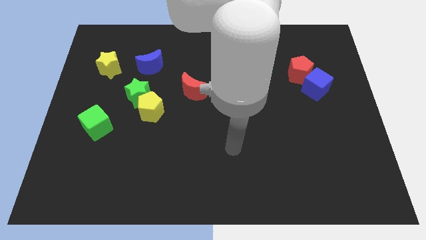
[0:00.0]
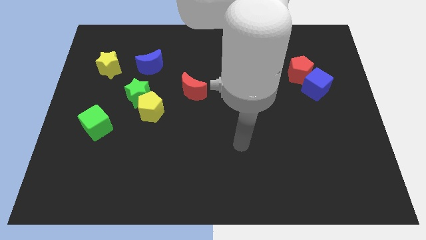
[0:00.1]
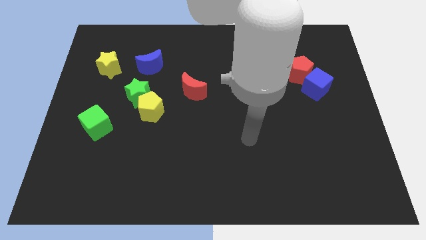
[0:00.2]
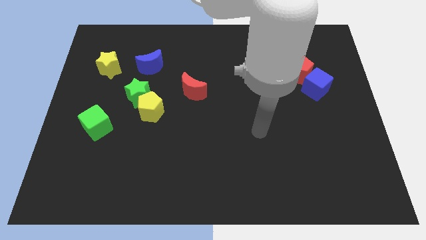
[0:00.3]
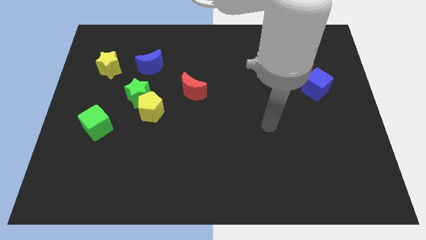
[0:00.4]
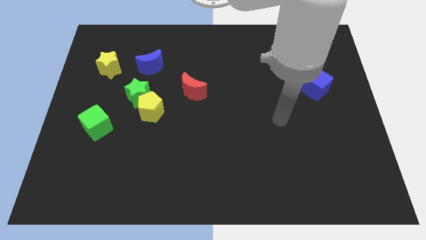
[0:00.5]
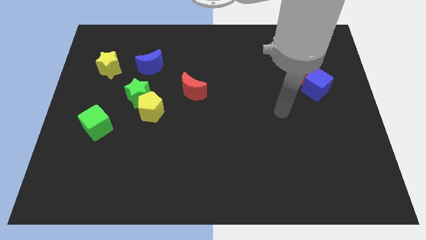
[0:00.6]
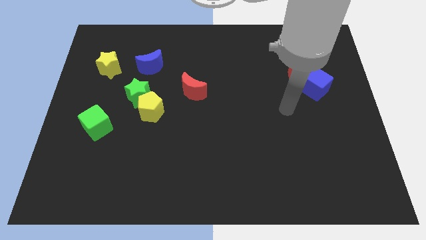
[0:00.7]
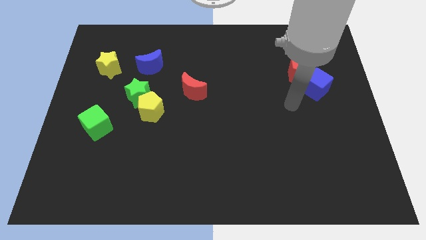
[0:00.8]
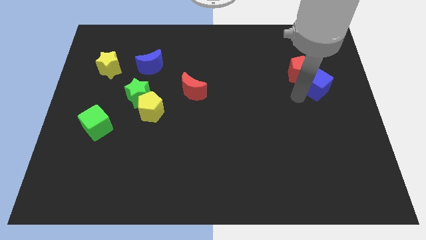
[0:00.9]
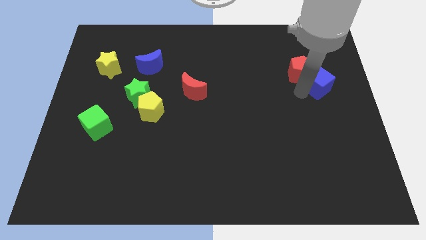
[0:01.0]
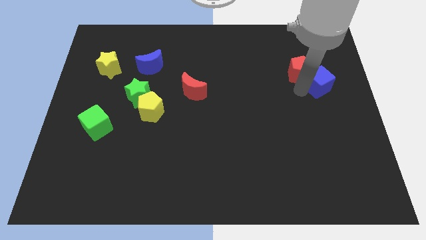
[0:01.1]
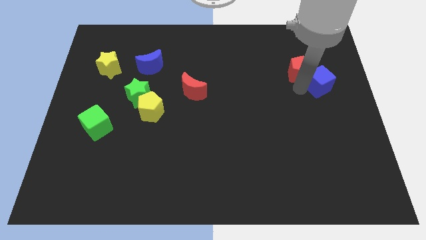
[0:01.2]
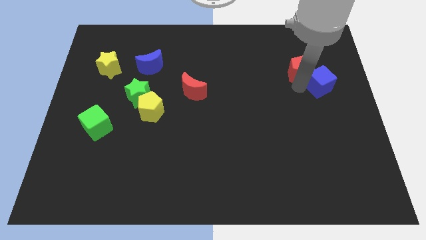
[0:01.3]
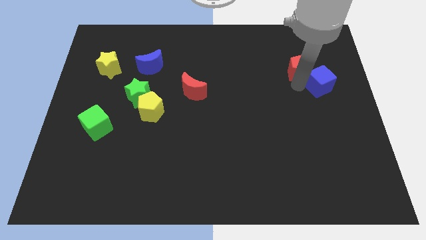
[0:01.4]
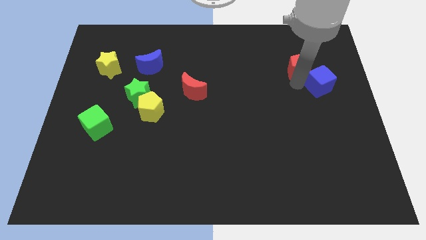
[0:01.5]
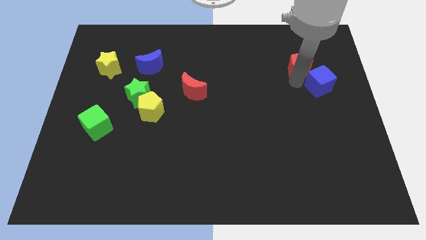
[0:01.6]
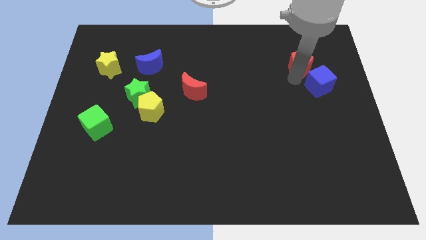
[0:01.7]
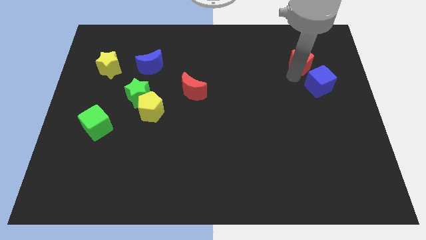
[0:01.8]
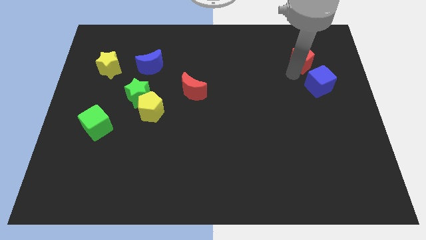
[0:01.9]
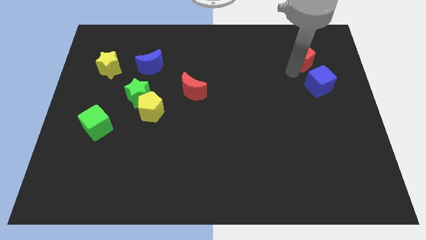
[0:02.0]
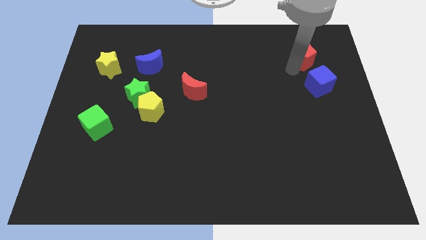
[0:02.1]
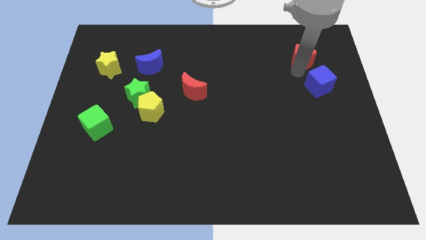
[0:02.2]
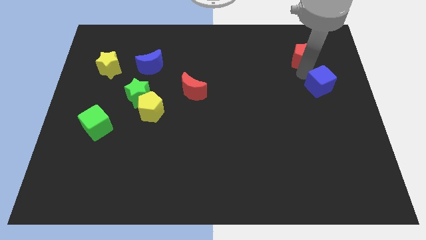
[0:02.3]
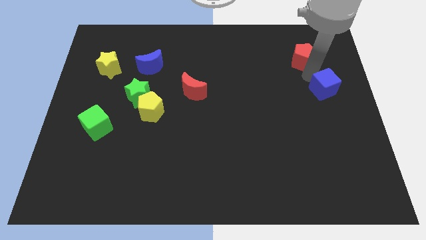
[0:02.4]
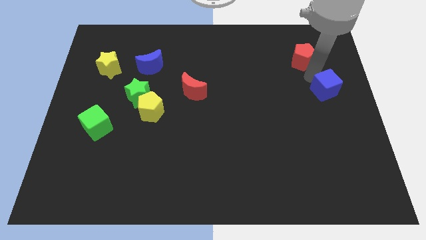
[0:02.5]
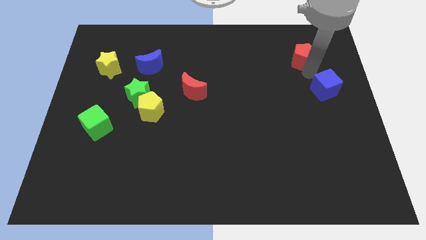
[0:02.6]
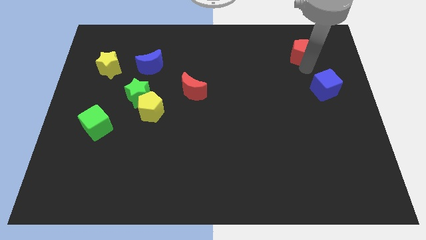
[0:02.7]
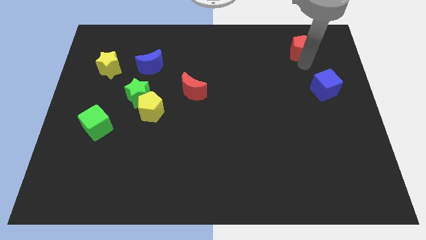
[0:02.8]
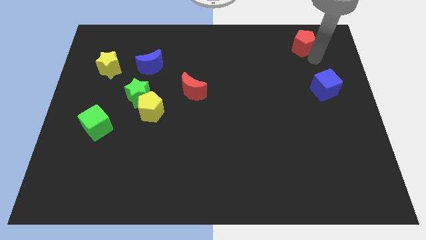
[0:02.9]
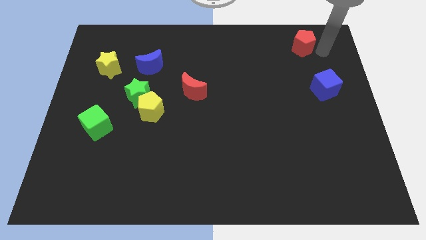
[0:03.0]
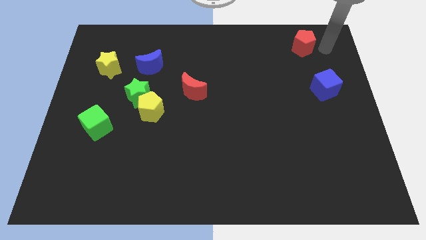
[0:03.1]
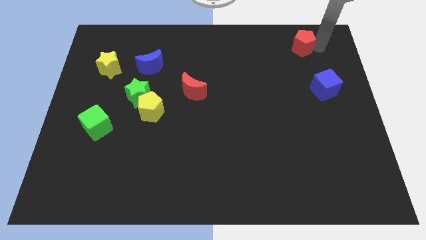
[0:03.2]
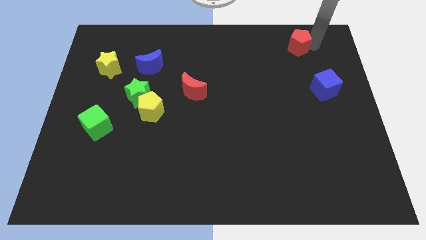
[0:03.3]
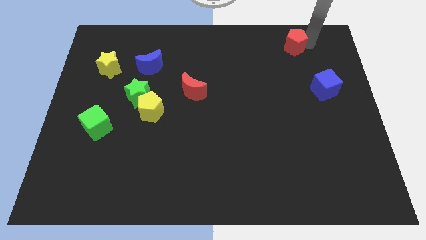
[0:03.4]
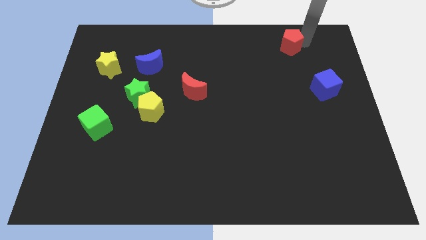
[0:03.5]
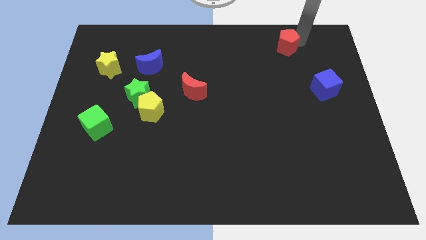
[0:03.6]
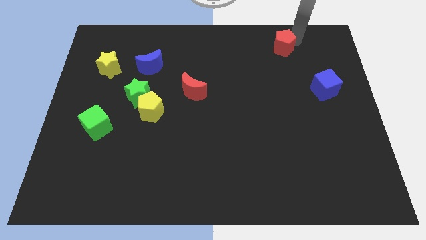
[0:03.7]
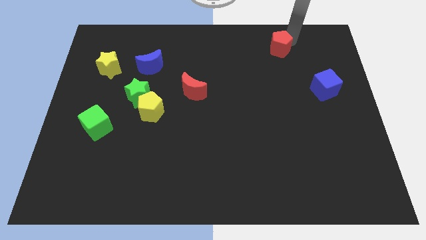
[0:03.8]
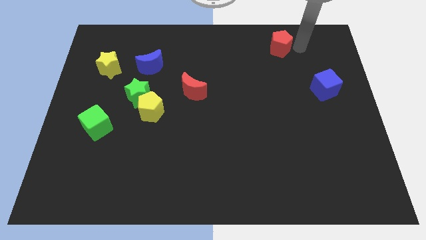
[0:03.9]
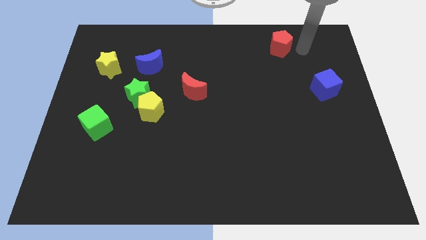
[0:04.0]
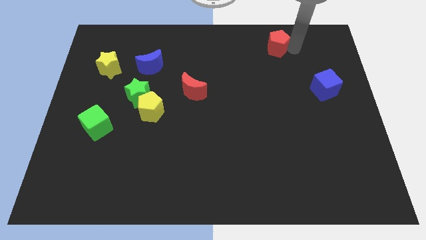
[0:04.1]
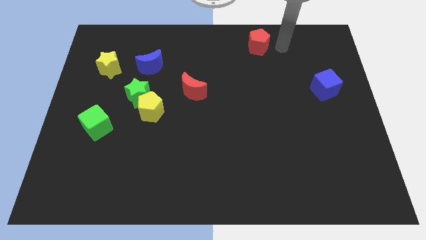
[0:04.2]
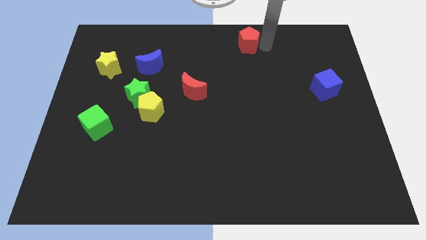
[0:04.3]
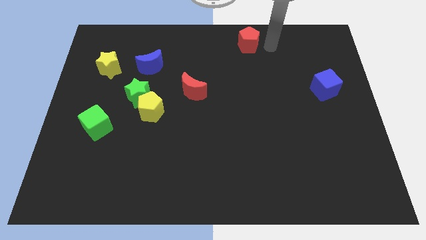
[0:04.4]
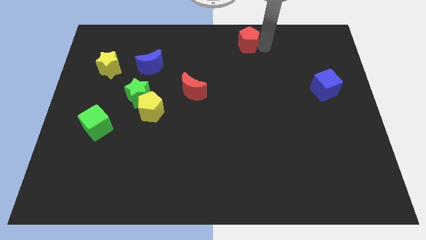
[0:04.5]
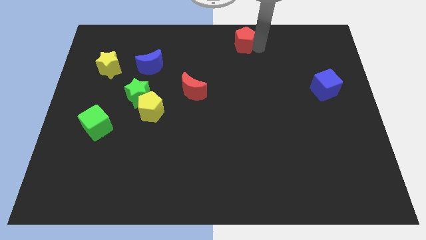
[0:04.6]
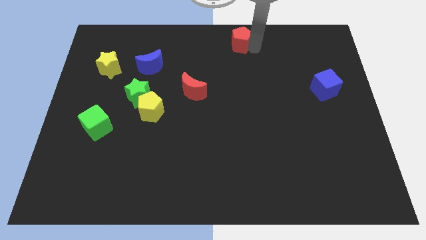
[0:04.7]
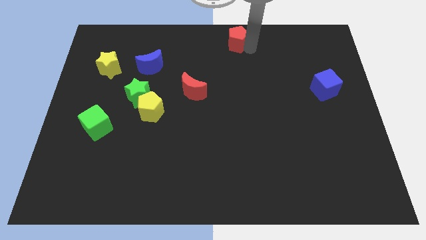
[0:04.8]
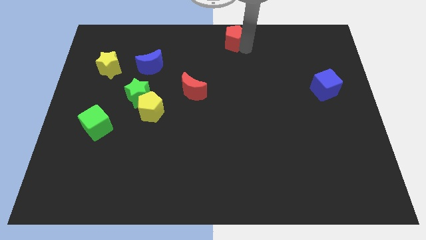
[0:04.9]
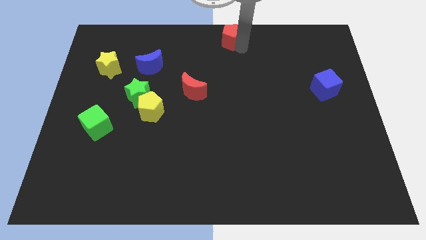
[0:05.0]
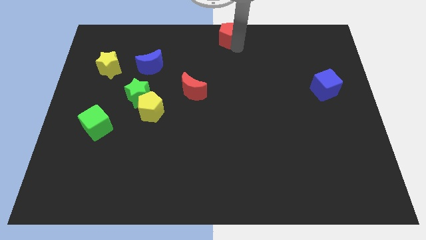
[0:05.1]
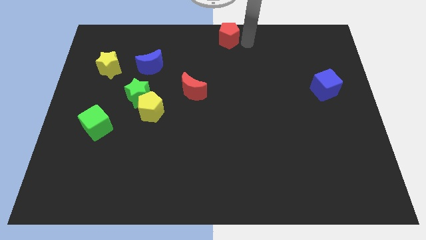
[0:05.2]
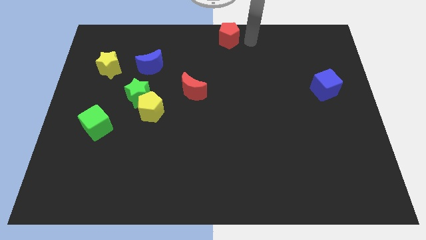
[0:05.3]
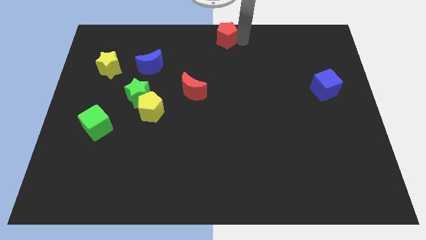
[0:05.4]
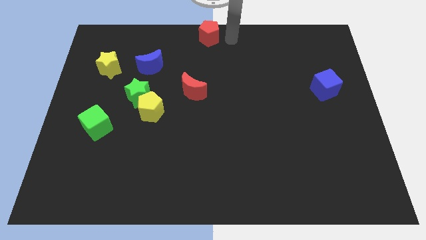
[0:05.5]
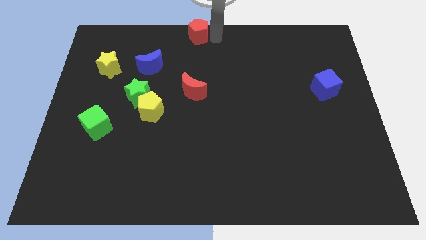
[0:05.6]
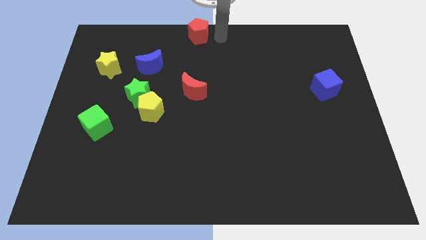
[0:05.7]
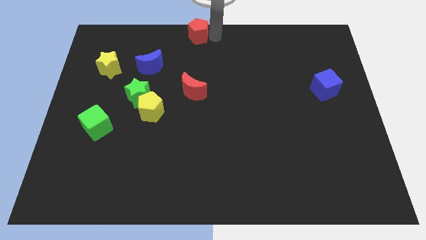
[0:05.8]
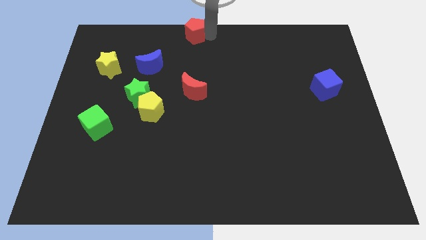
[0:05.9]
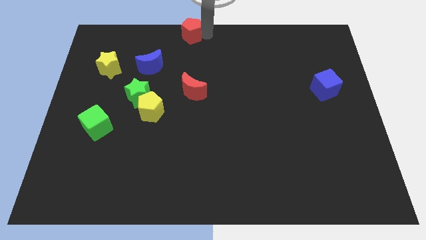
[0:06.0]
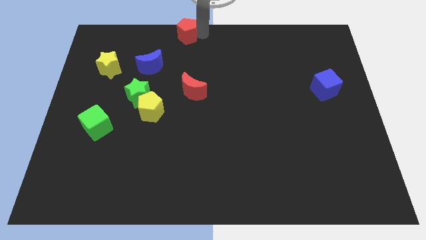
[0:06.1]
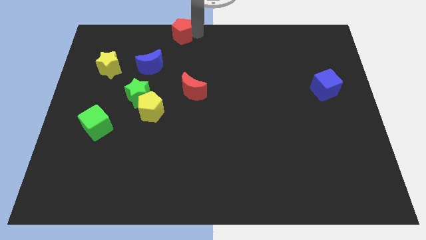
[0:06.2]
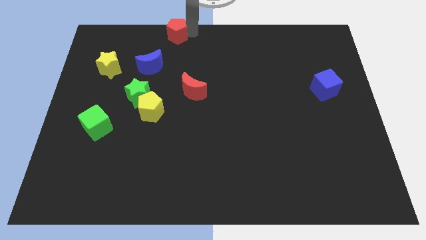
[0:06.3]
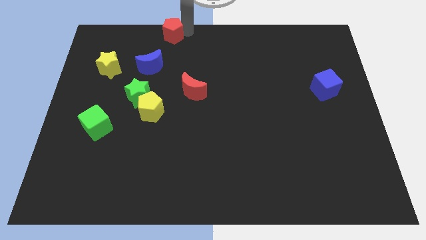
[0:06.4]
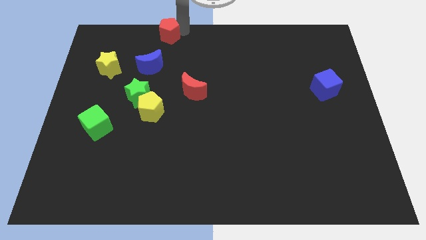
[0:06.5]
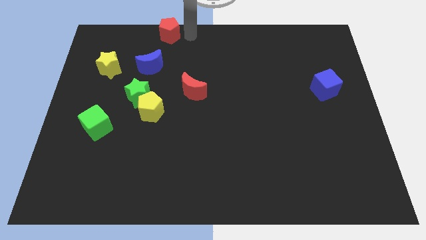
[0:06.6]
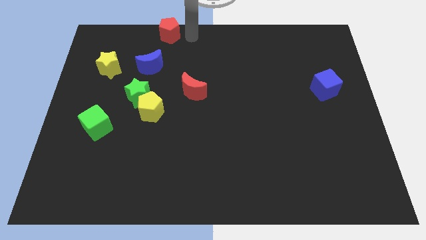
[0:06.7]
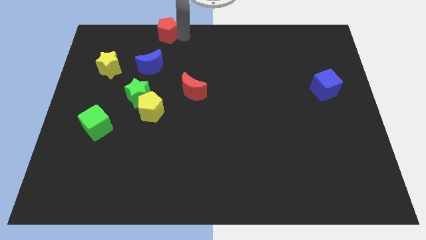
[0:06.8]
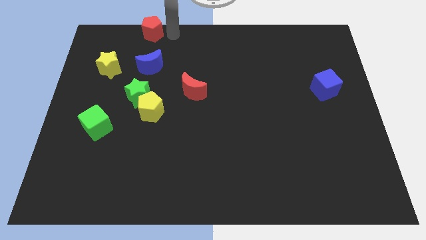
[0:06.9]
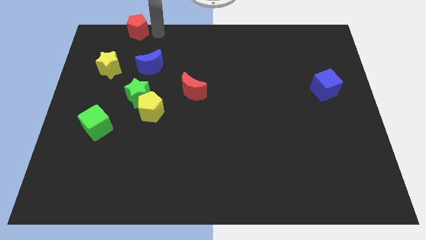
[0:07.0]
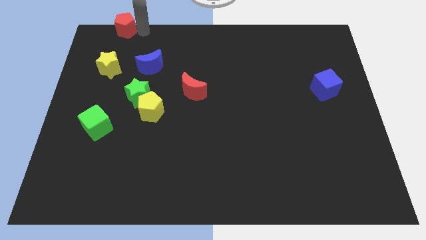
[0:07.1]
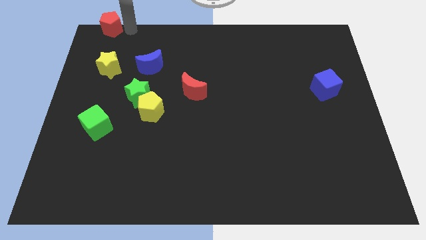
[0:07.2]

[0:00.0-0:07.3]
slide the red pentagon to the upper left corner
